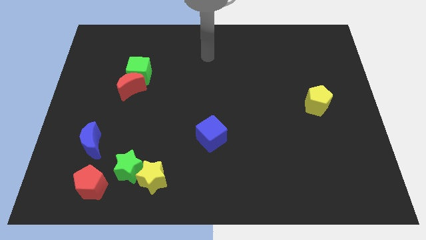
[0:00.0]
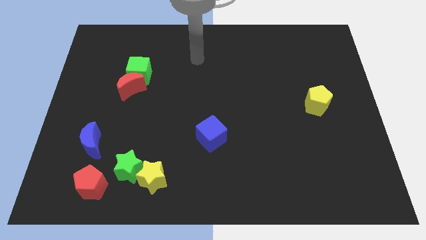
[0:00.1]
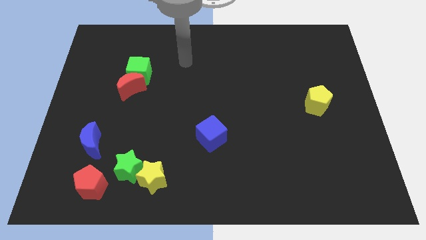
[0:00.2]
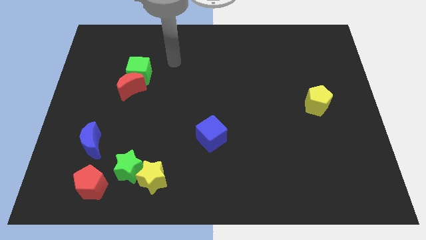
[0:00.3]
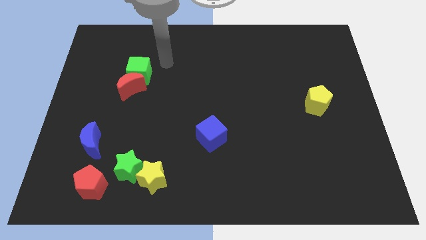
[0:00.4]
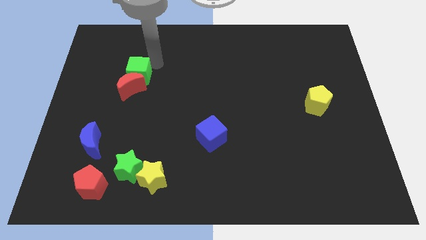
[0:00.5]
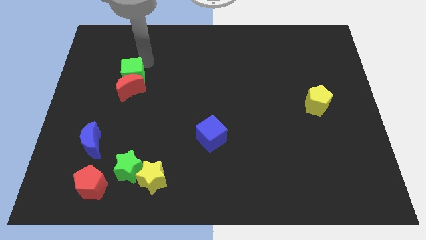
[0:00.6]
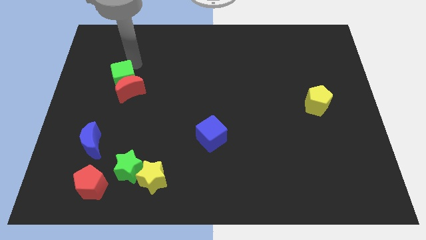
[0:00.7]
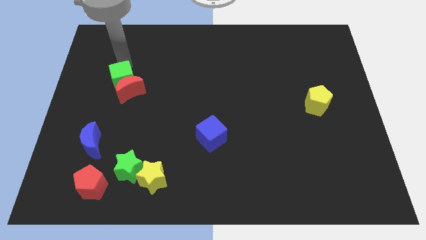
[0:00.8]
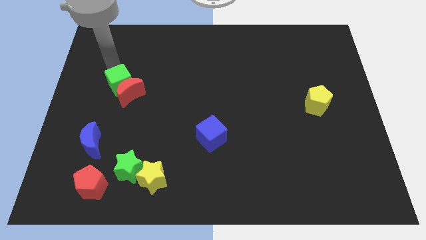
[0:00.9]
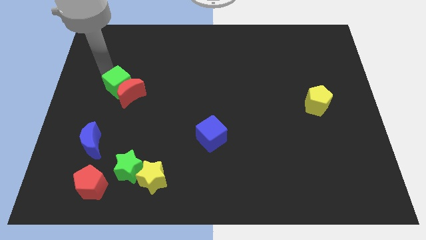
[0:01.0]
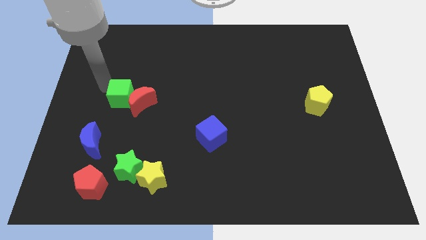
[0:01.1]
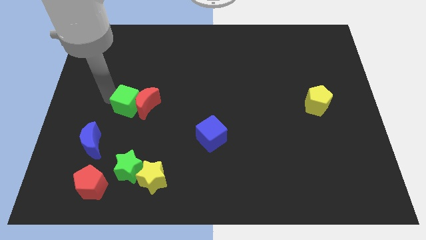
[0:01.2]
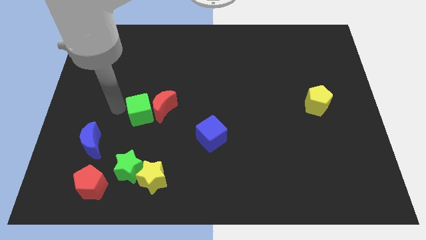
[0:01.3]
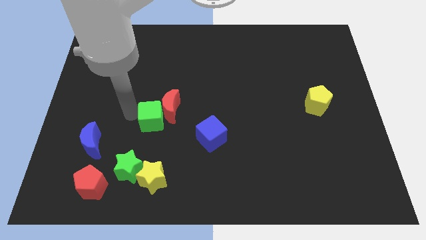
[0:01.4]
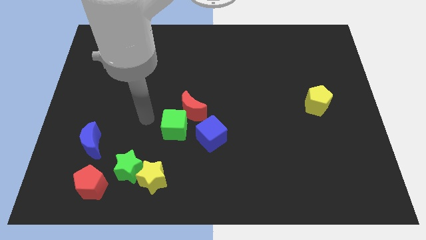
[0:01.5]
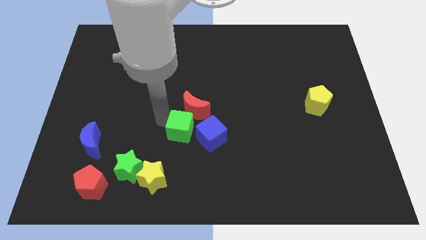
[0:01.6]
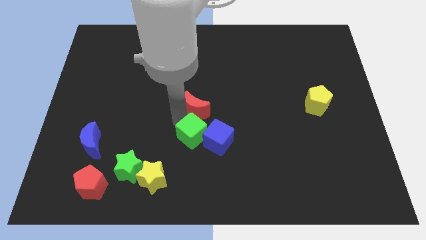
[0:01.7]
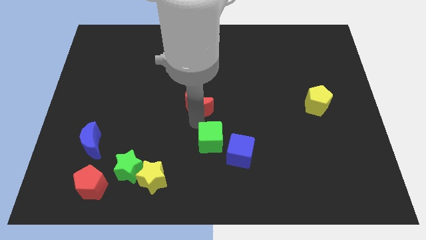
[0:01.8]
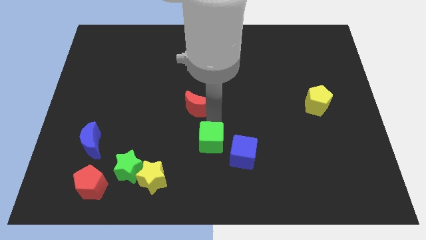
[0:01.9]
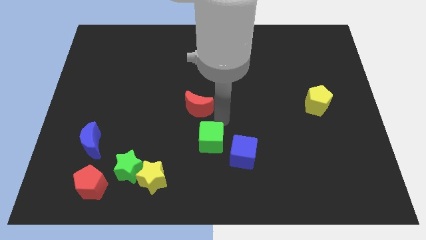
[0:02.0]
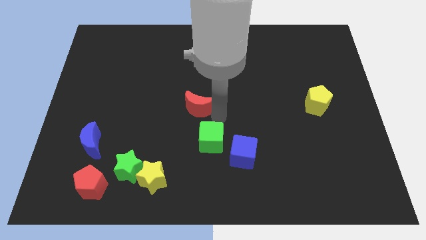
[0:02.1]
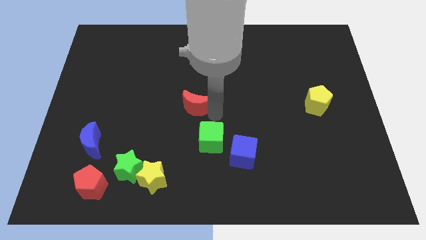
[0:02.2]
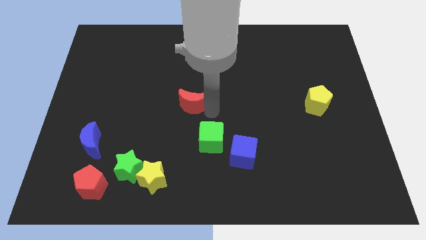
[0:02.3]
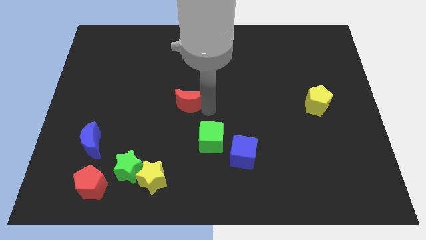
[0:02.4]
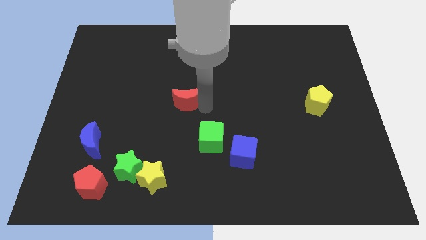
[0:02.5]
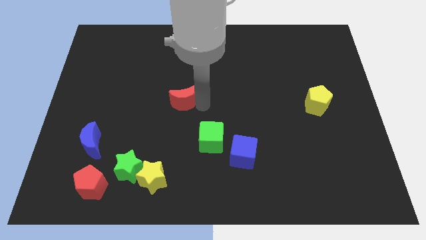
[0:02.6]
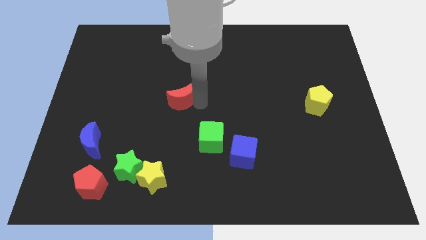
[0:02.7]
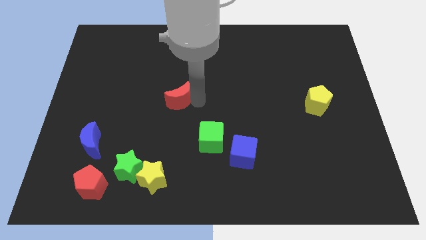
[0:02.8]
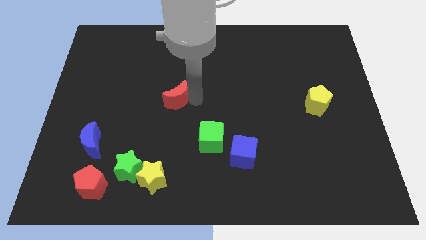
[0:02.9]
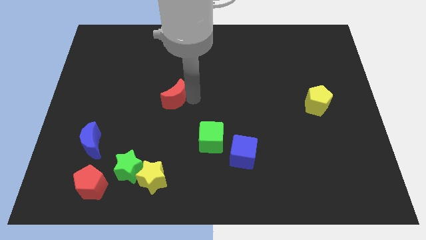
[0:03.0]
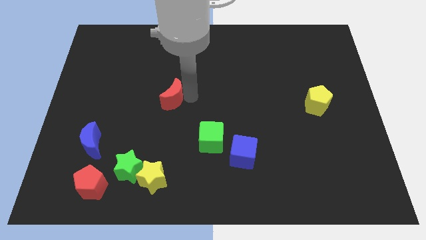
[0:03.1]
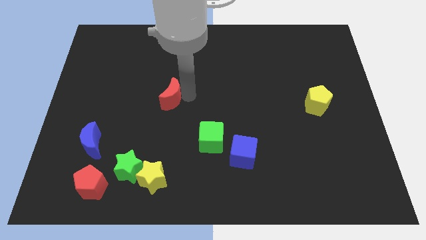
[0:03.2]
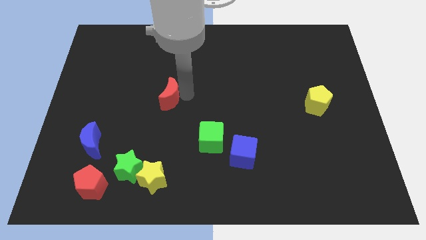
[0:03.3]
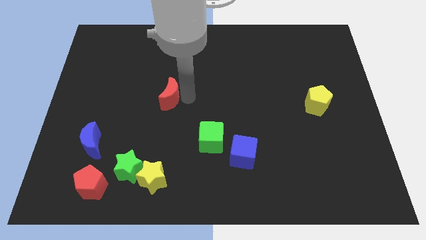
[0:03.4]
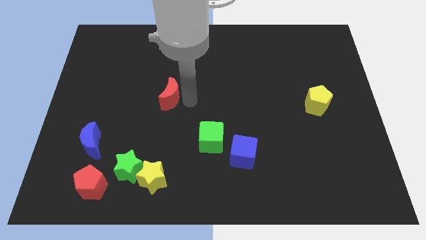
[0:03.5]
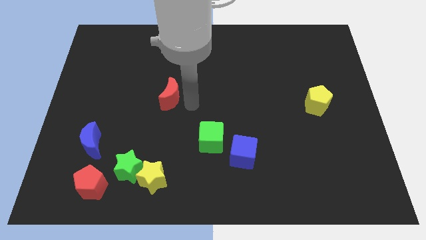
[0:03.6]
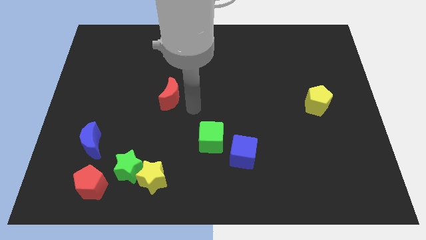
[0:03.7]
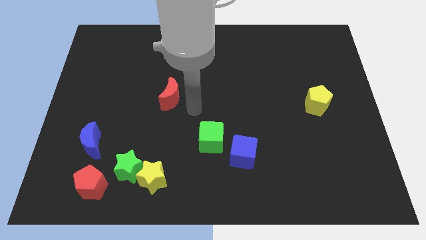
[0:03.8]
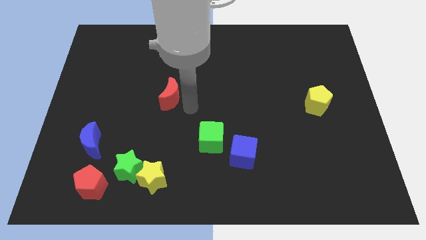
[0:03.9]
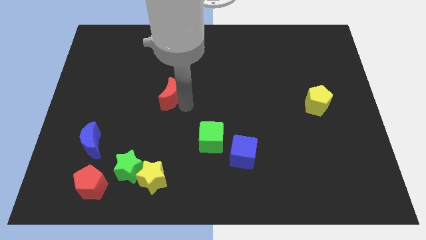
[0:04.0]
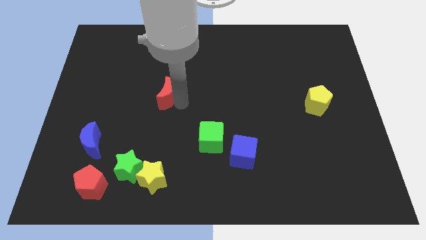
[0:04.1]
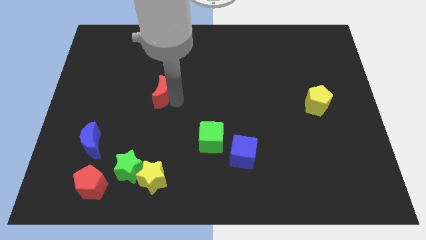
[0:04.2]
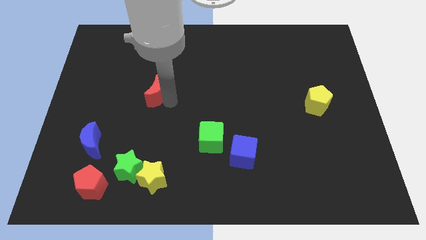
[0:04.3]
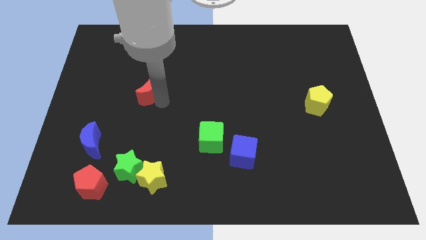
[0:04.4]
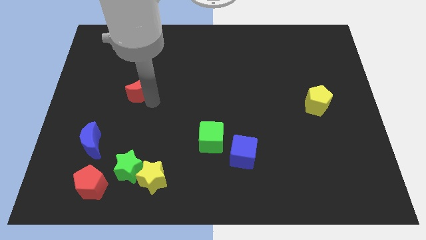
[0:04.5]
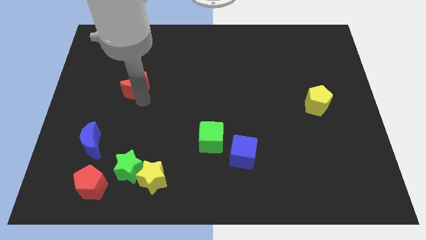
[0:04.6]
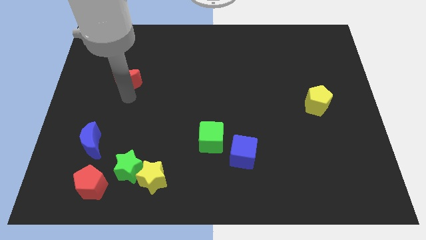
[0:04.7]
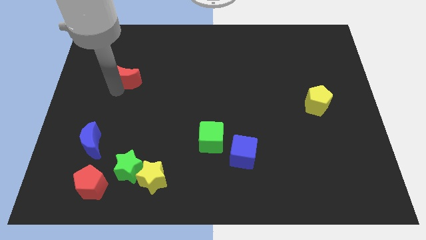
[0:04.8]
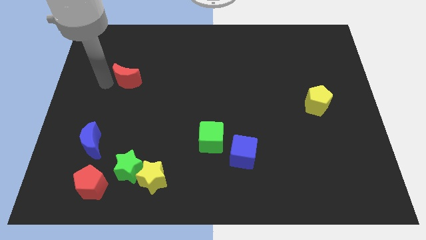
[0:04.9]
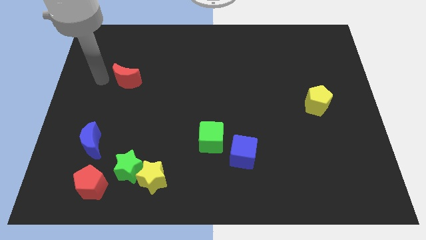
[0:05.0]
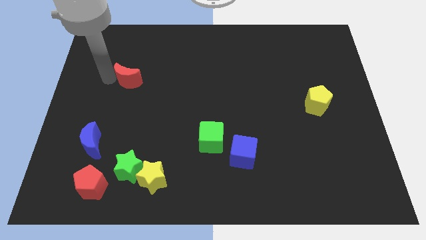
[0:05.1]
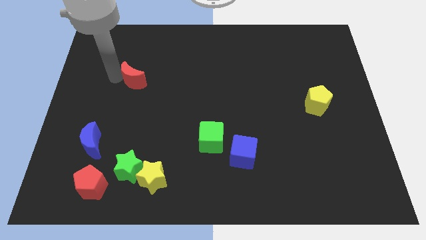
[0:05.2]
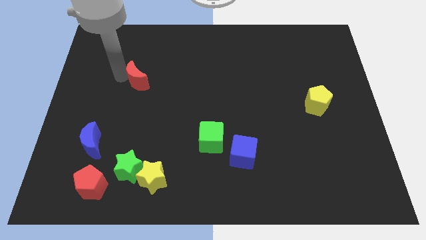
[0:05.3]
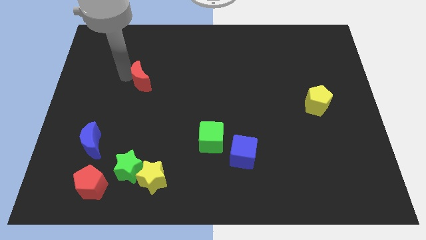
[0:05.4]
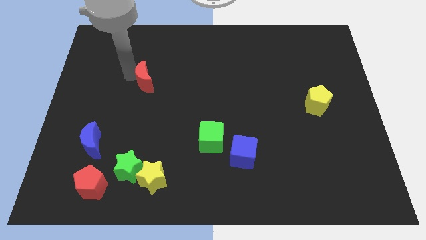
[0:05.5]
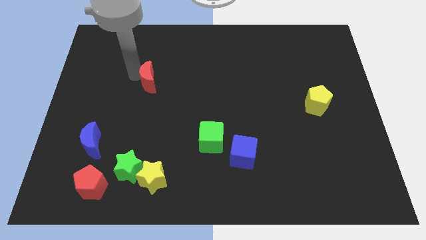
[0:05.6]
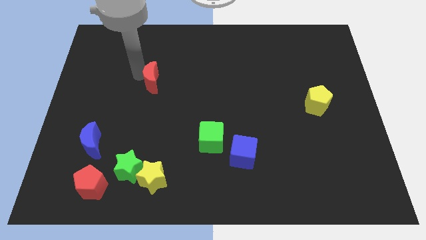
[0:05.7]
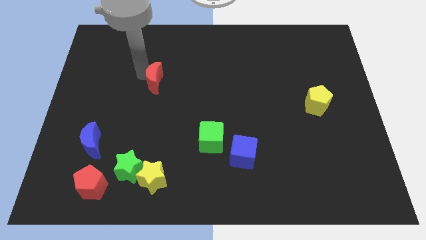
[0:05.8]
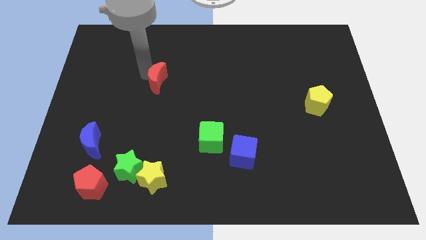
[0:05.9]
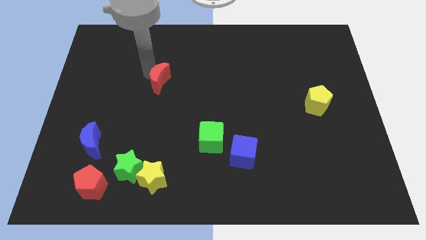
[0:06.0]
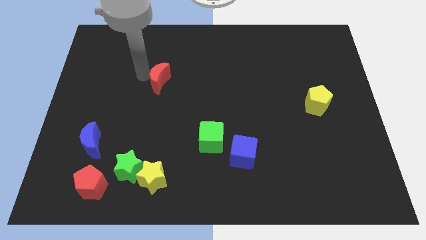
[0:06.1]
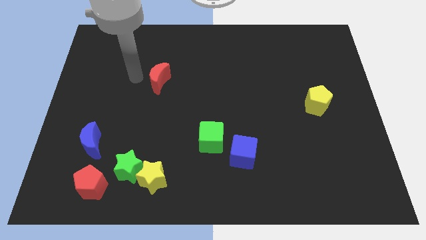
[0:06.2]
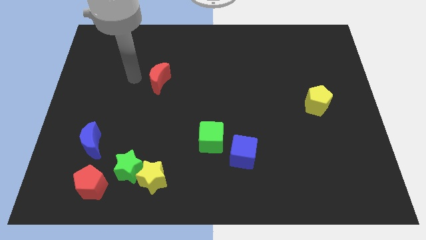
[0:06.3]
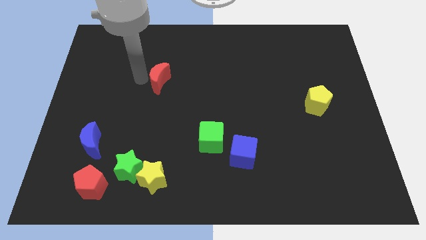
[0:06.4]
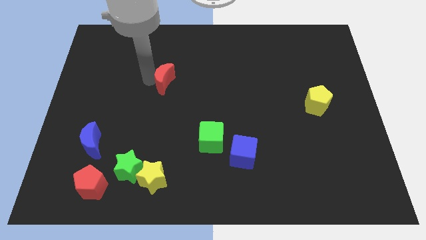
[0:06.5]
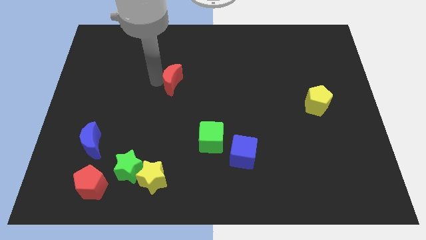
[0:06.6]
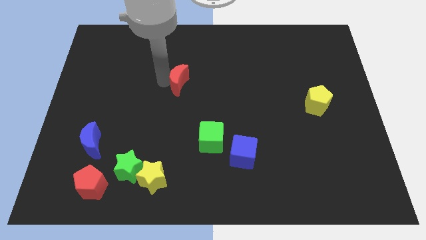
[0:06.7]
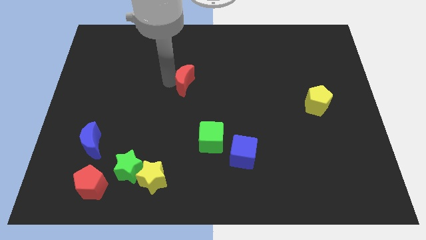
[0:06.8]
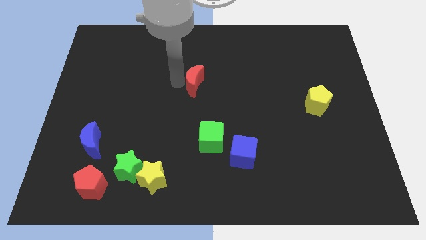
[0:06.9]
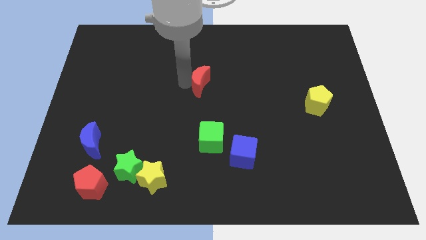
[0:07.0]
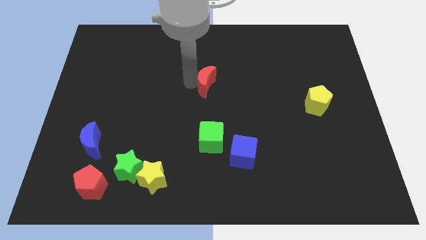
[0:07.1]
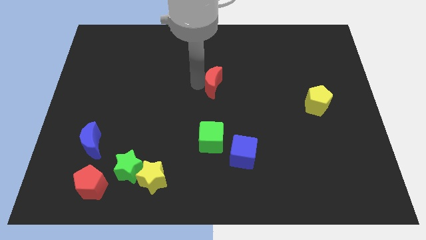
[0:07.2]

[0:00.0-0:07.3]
slide the red moon right

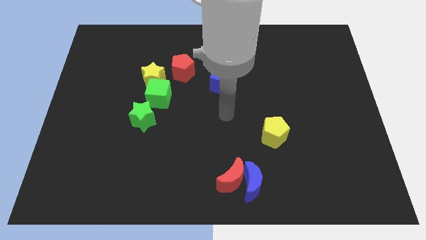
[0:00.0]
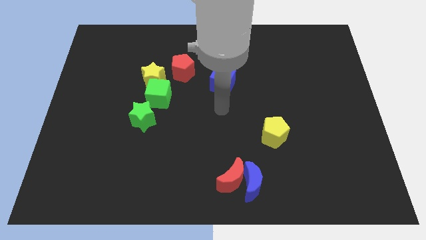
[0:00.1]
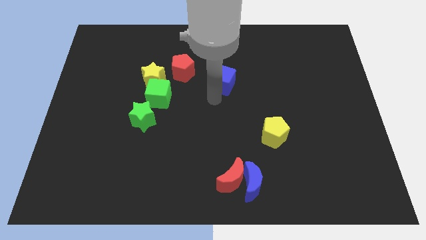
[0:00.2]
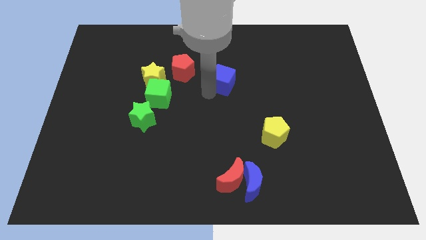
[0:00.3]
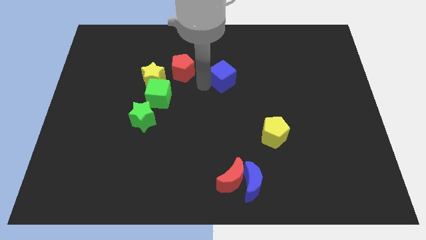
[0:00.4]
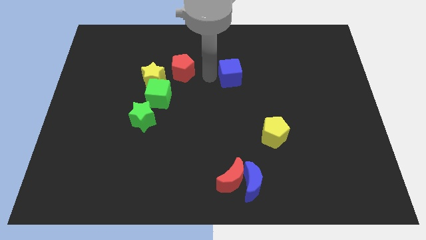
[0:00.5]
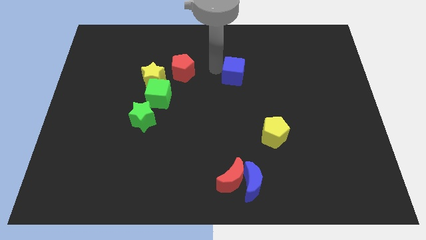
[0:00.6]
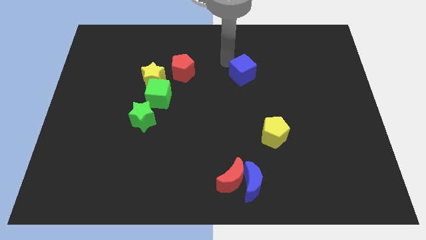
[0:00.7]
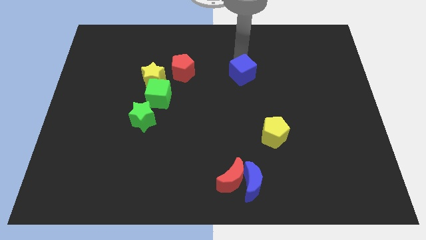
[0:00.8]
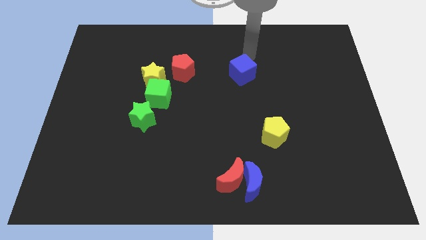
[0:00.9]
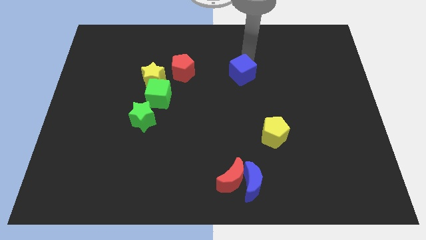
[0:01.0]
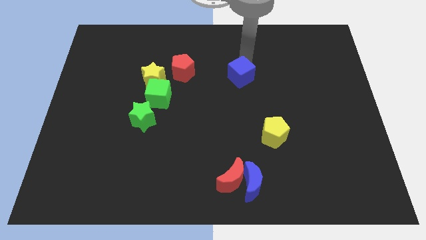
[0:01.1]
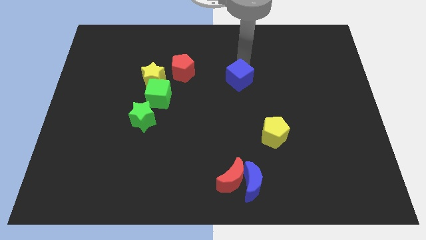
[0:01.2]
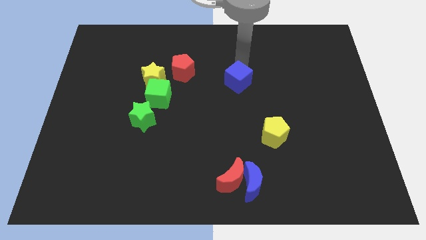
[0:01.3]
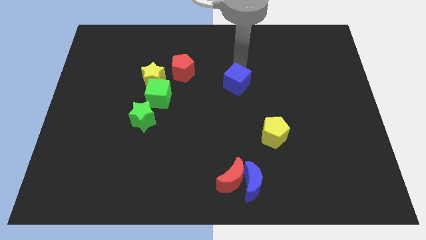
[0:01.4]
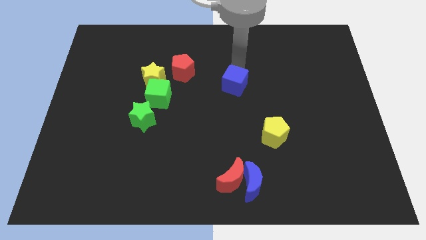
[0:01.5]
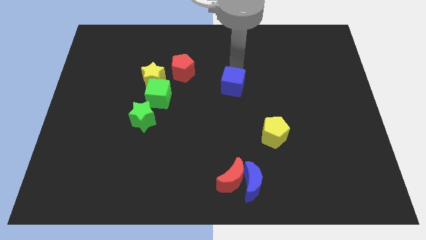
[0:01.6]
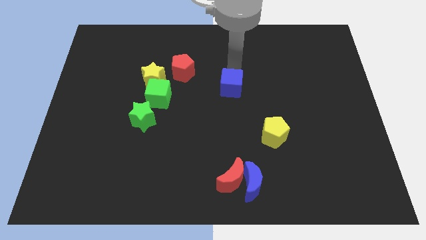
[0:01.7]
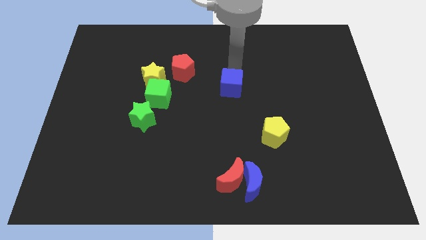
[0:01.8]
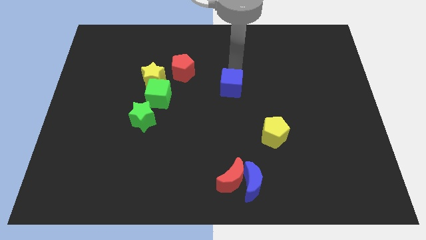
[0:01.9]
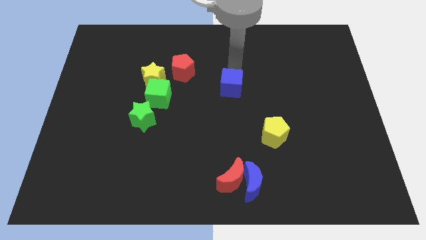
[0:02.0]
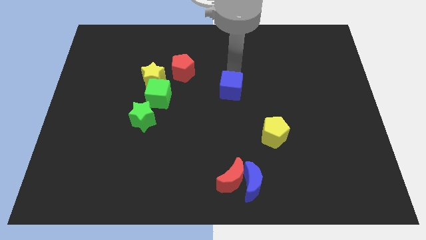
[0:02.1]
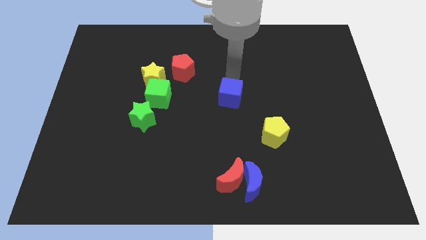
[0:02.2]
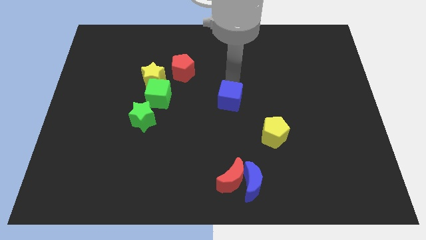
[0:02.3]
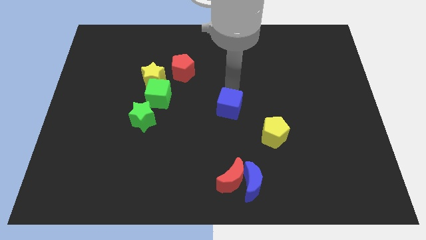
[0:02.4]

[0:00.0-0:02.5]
slide the blue cube downwards a little bit
